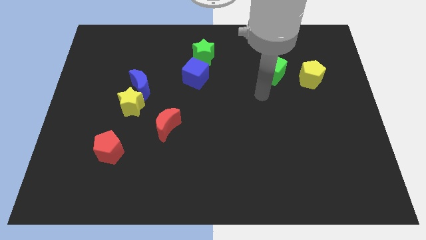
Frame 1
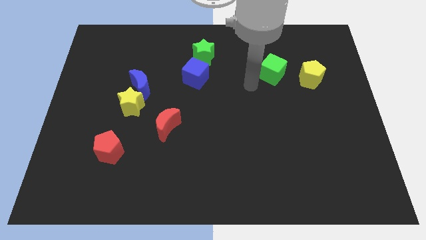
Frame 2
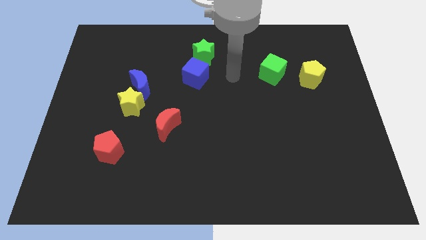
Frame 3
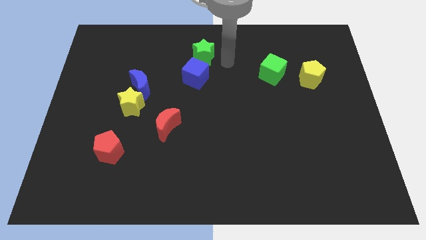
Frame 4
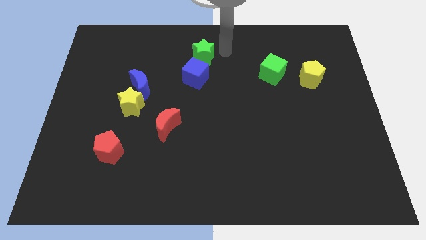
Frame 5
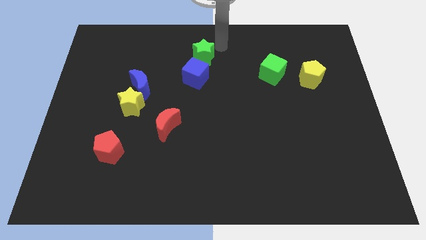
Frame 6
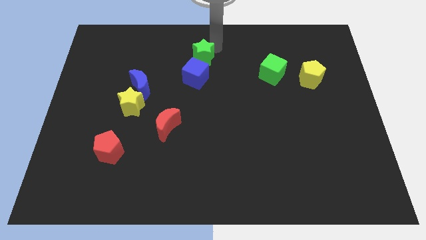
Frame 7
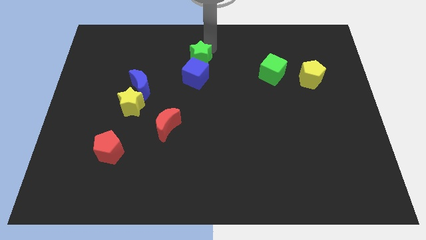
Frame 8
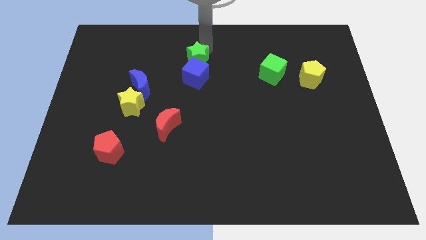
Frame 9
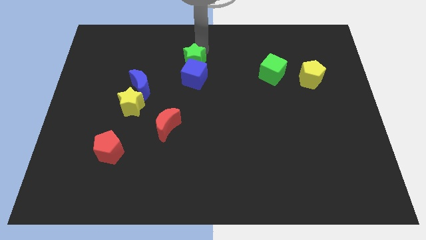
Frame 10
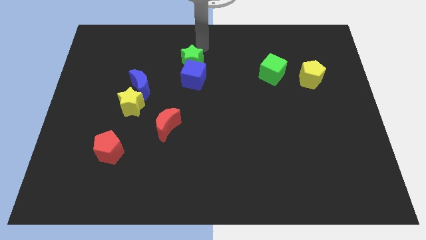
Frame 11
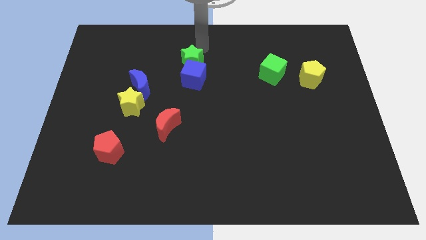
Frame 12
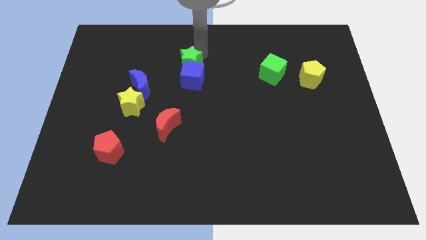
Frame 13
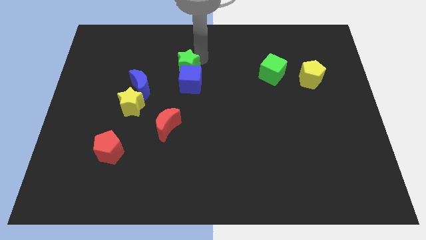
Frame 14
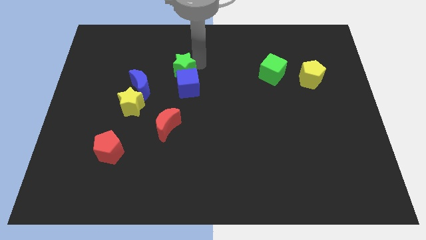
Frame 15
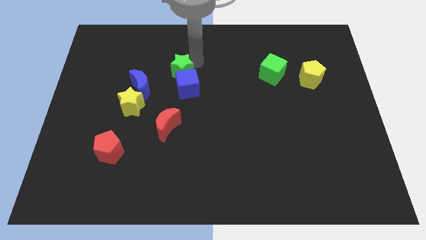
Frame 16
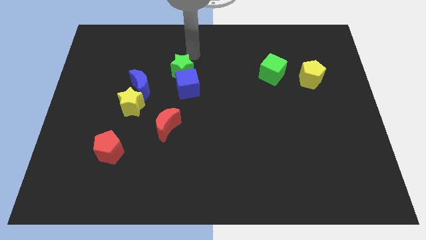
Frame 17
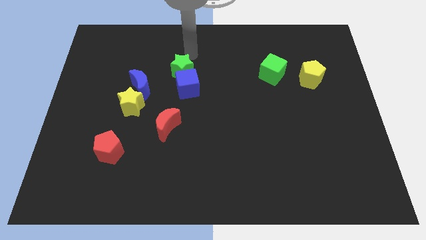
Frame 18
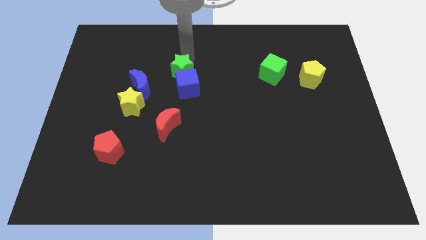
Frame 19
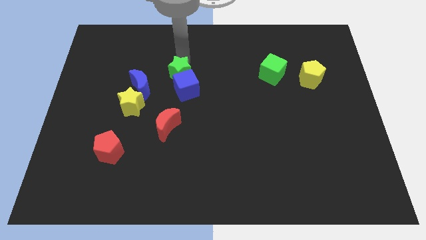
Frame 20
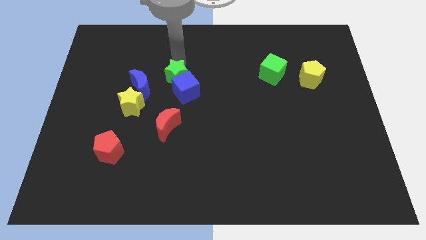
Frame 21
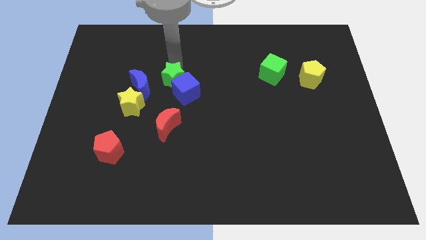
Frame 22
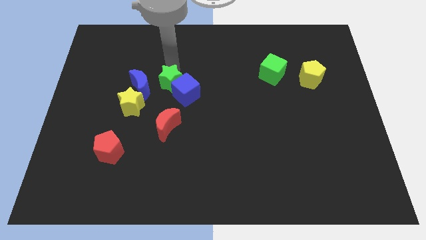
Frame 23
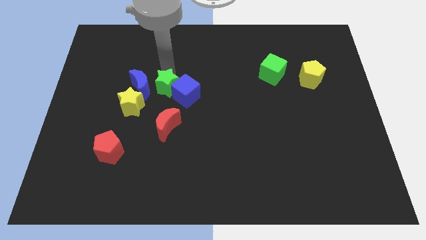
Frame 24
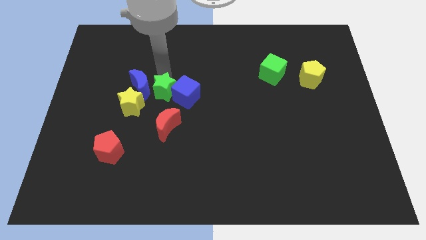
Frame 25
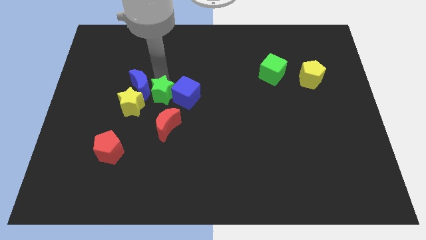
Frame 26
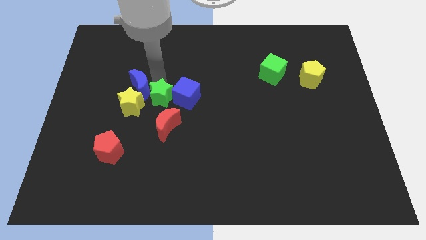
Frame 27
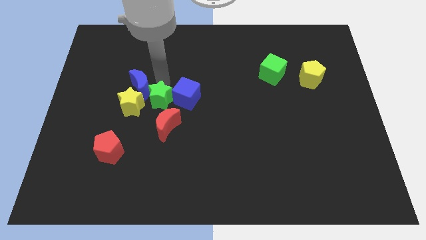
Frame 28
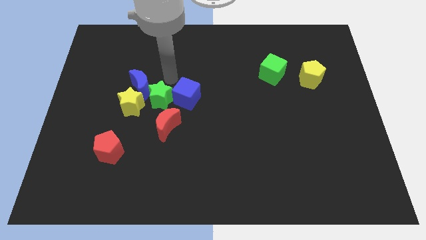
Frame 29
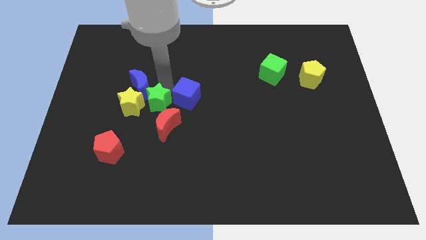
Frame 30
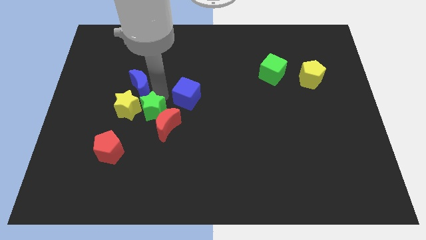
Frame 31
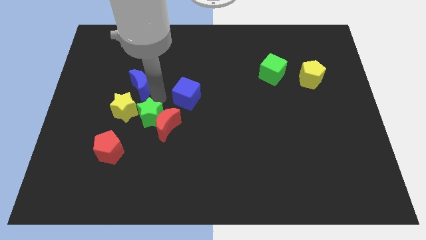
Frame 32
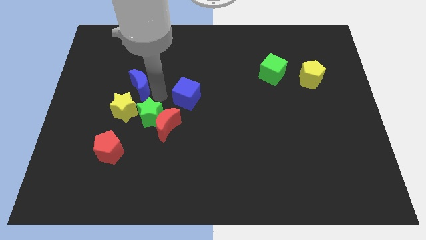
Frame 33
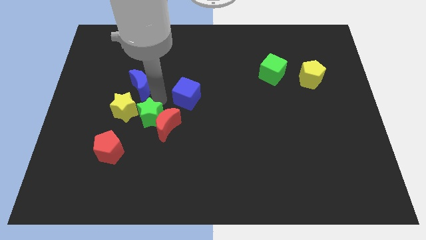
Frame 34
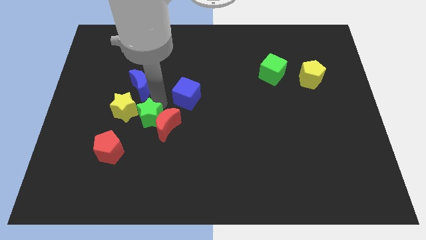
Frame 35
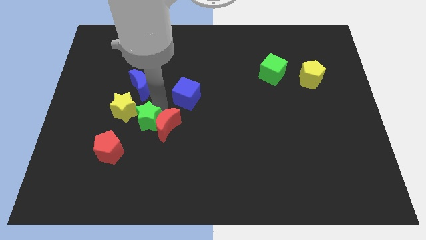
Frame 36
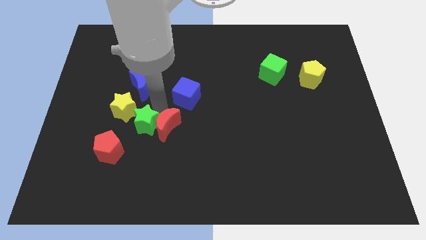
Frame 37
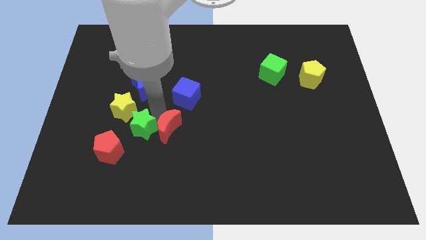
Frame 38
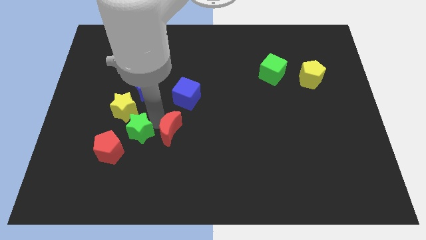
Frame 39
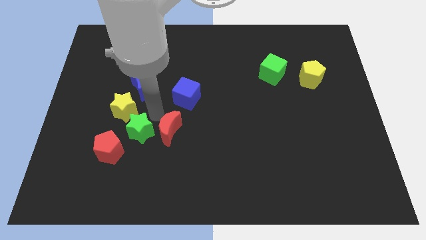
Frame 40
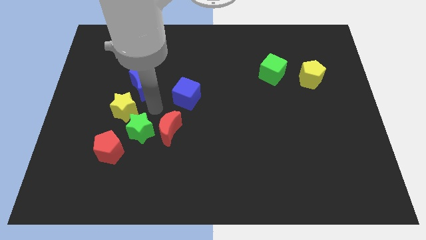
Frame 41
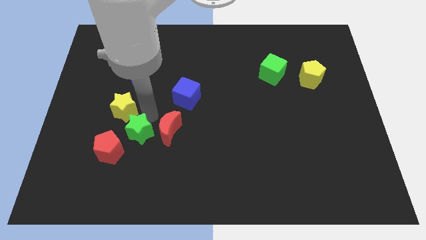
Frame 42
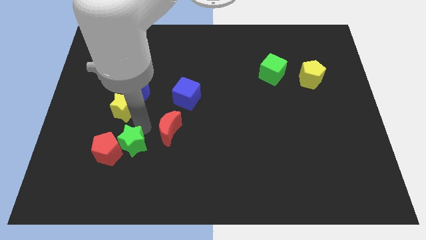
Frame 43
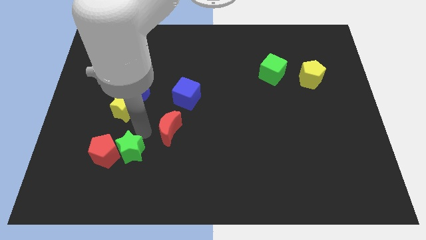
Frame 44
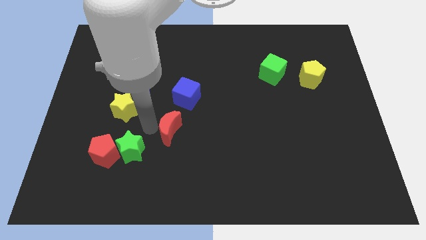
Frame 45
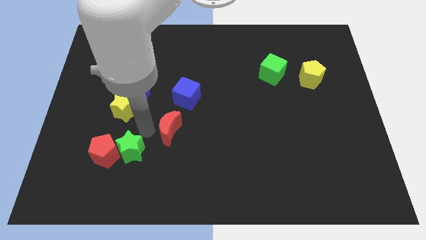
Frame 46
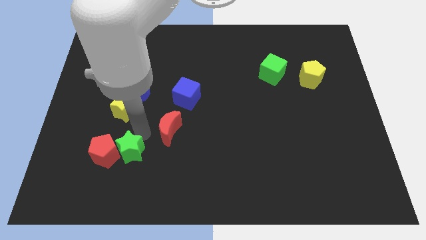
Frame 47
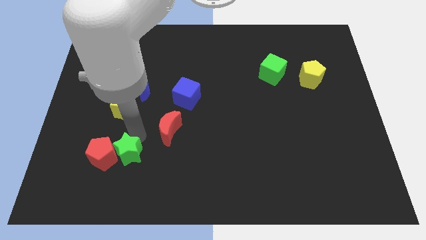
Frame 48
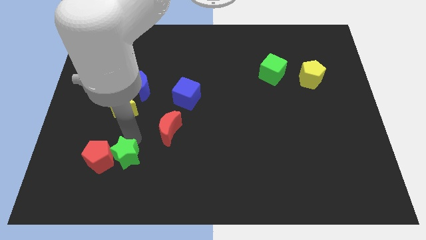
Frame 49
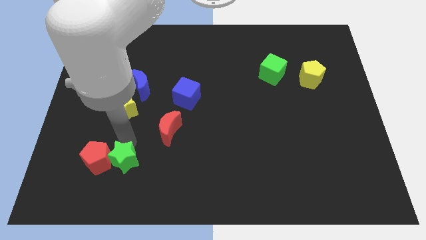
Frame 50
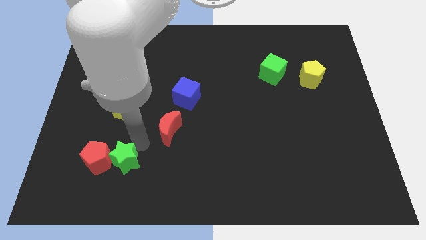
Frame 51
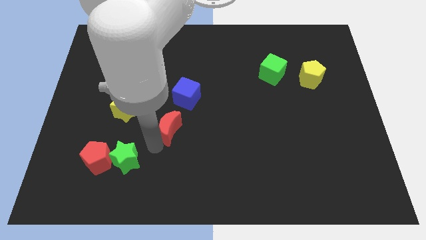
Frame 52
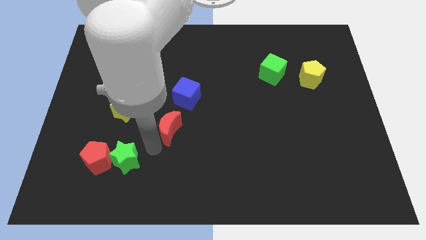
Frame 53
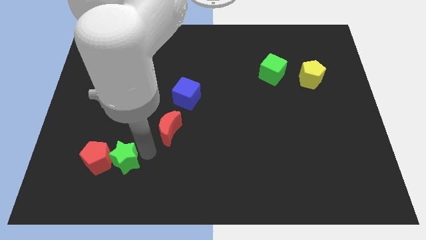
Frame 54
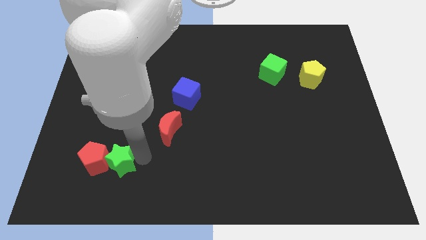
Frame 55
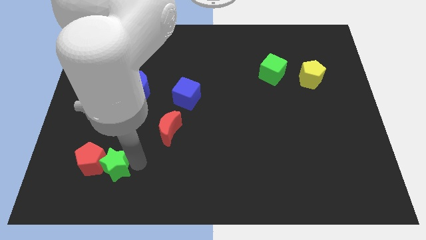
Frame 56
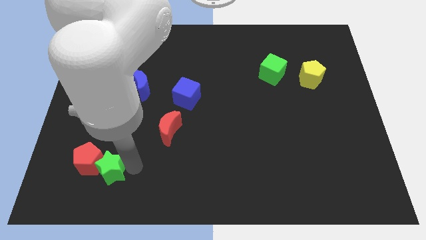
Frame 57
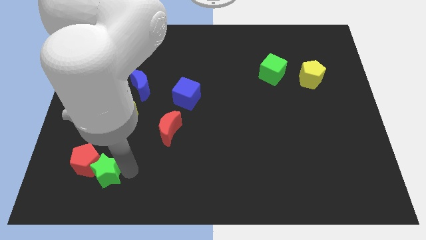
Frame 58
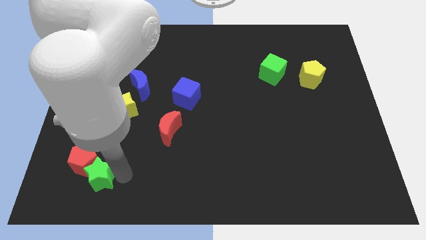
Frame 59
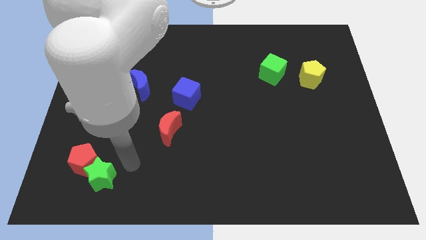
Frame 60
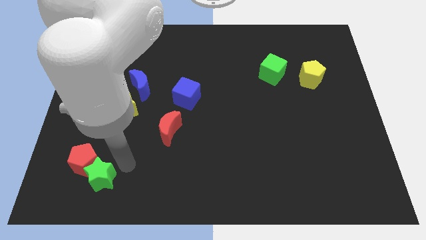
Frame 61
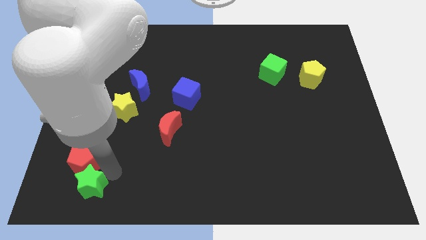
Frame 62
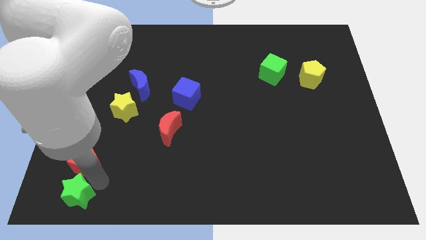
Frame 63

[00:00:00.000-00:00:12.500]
move the green star to the lower left corner

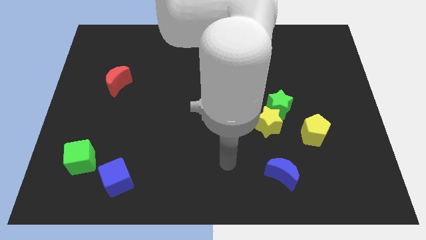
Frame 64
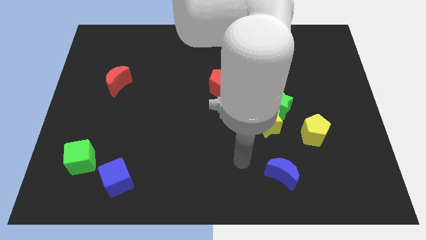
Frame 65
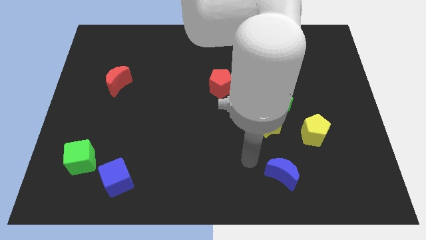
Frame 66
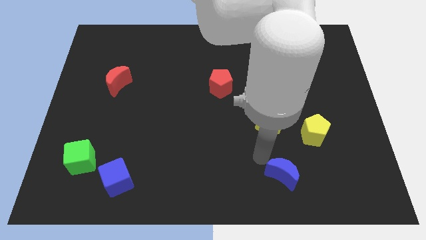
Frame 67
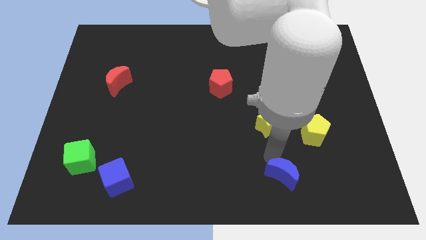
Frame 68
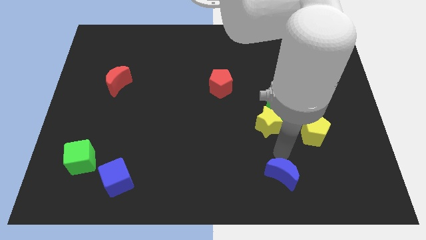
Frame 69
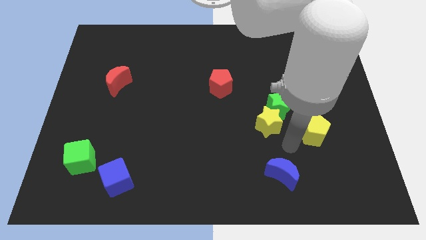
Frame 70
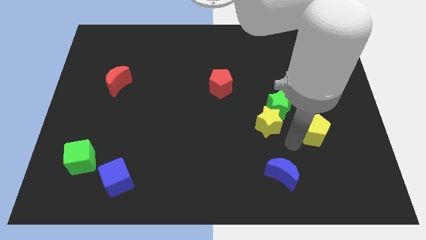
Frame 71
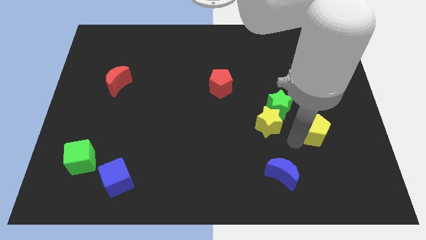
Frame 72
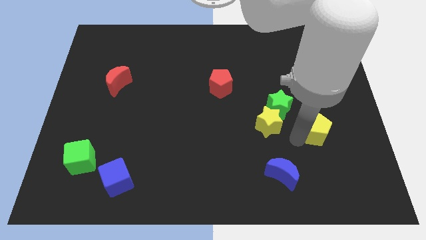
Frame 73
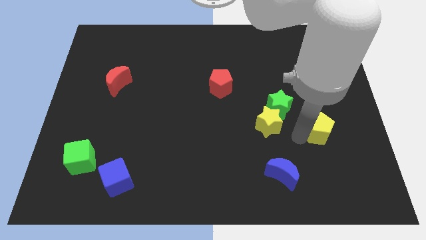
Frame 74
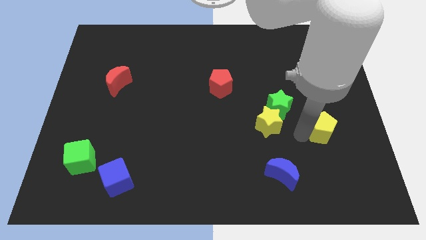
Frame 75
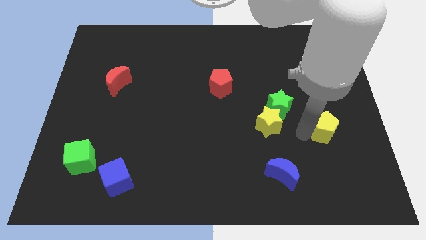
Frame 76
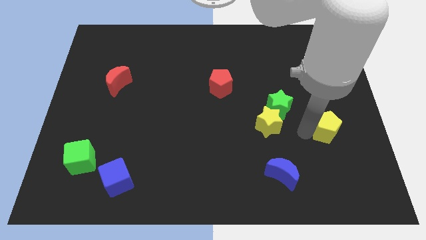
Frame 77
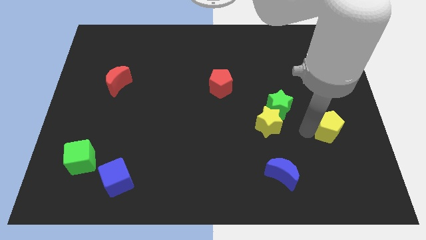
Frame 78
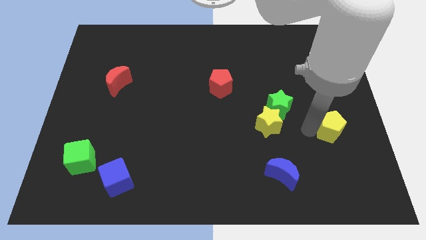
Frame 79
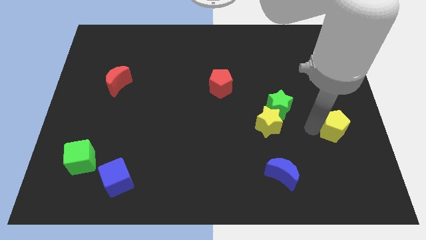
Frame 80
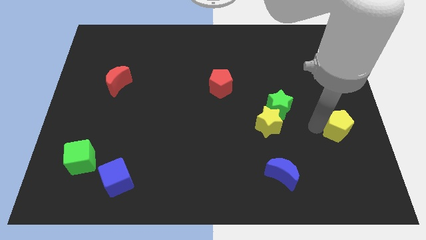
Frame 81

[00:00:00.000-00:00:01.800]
put the yellow pentagon to the right side
